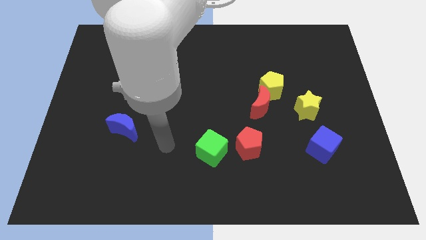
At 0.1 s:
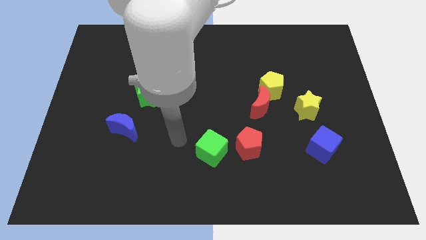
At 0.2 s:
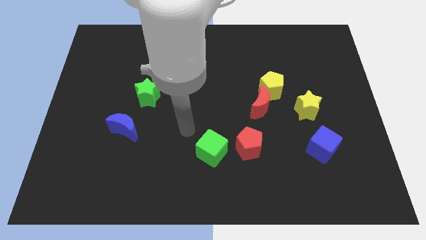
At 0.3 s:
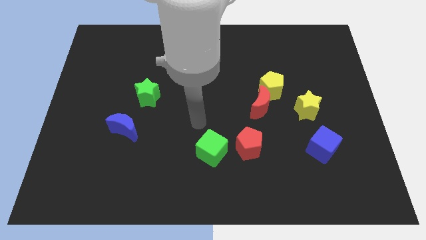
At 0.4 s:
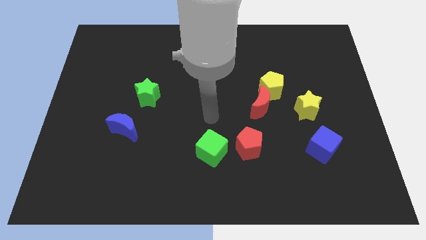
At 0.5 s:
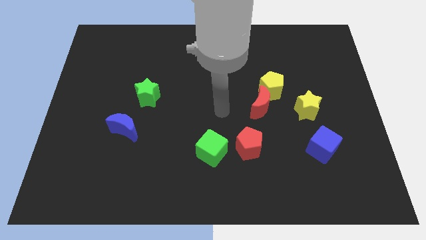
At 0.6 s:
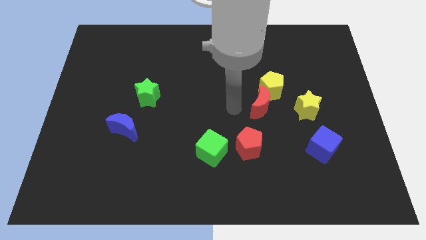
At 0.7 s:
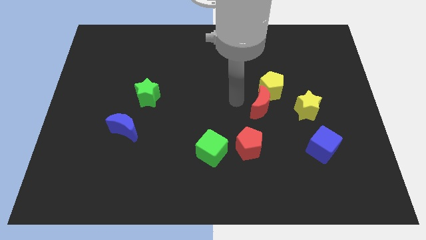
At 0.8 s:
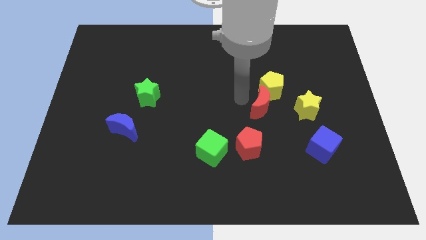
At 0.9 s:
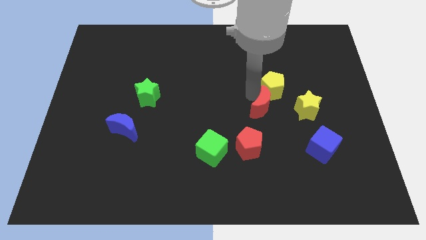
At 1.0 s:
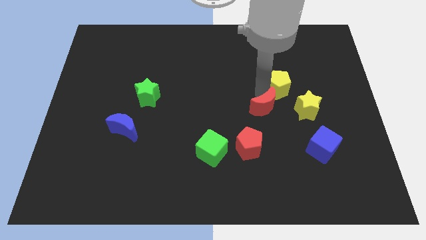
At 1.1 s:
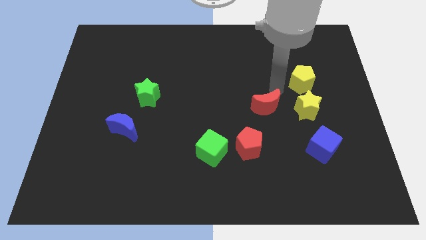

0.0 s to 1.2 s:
pull the red moon apart from the yellow pentagon

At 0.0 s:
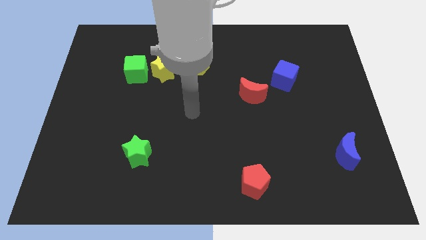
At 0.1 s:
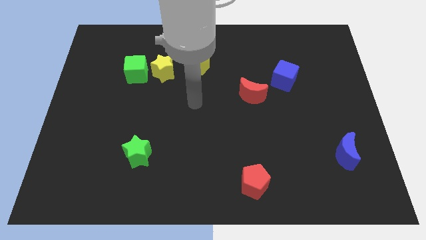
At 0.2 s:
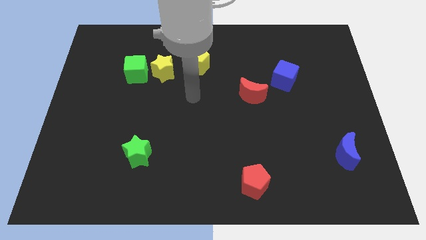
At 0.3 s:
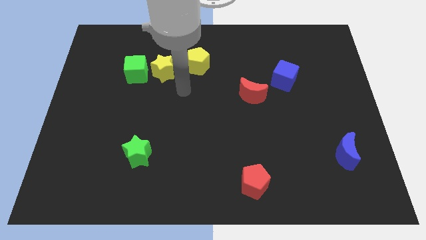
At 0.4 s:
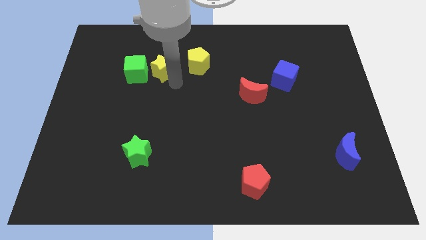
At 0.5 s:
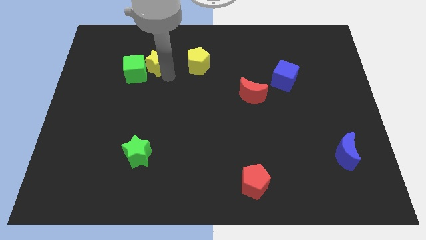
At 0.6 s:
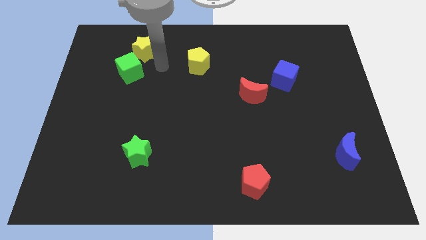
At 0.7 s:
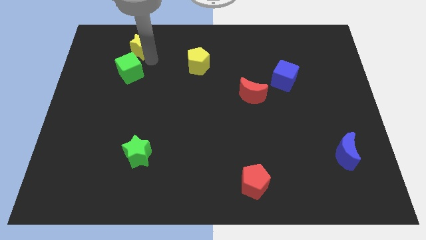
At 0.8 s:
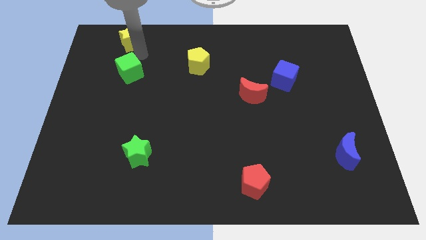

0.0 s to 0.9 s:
separate the green cube from the yellow star

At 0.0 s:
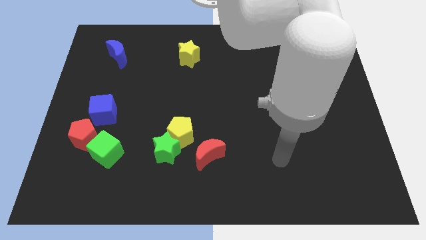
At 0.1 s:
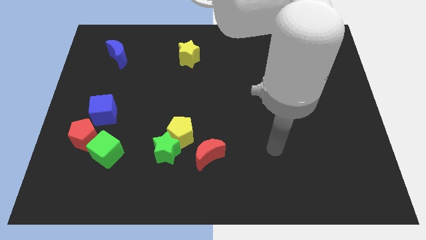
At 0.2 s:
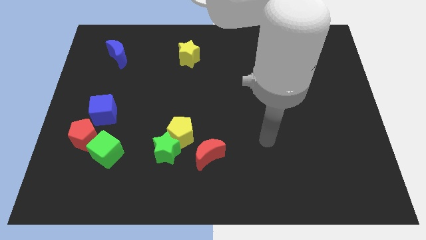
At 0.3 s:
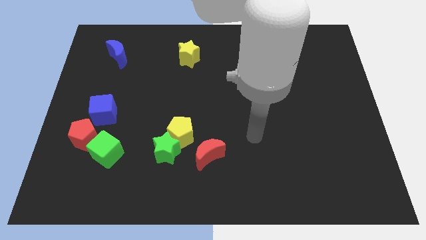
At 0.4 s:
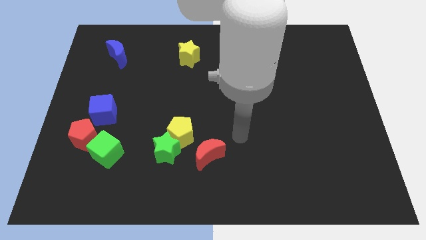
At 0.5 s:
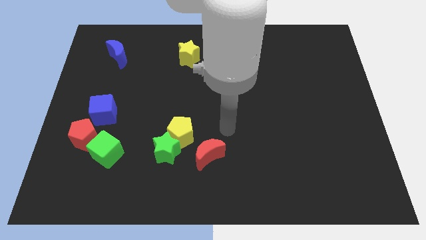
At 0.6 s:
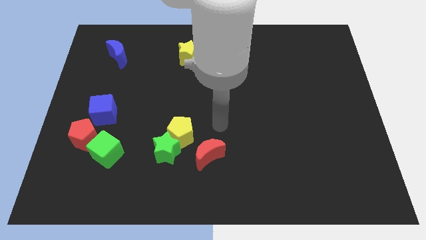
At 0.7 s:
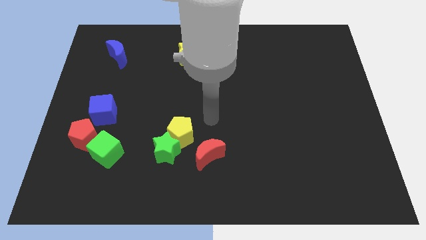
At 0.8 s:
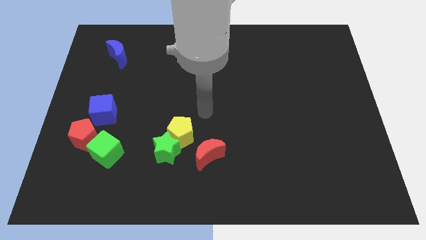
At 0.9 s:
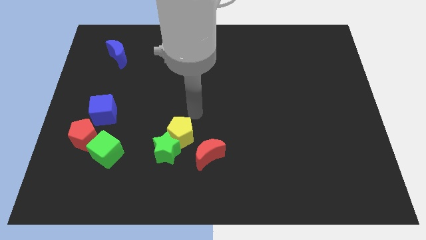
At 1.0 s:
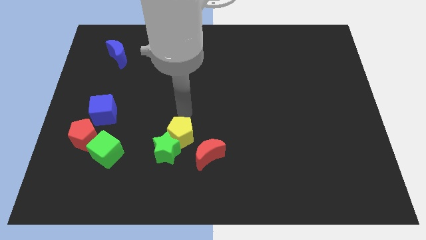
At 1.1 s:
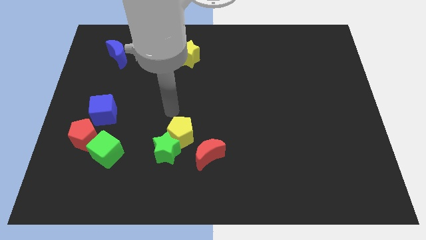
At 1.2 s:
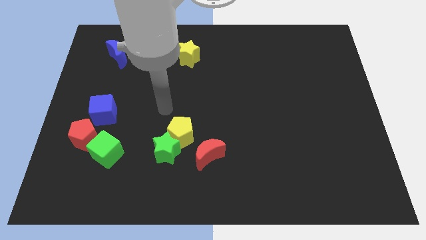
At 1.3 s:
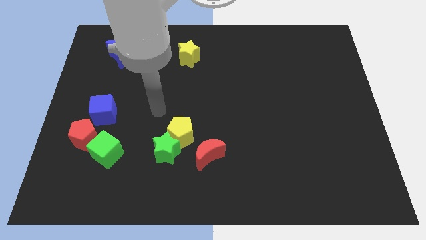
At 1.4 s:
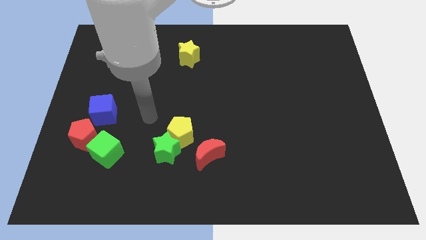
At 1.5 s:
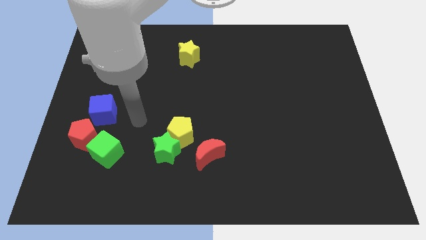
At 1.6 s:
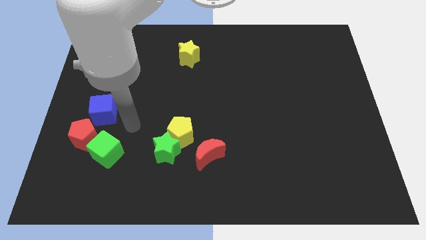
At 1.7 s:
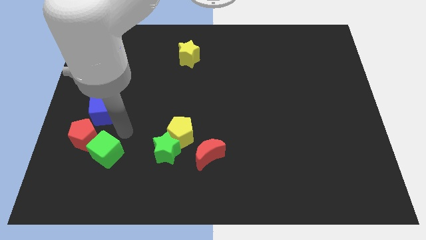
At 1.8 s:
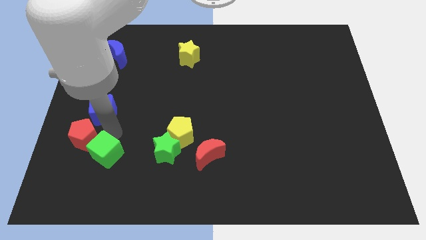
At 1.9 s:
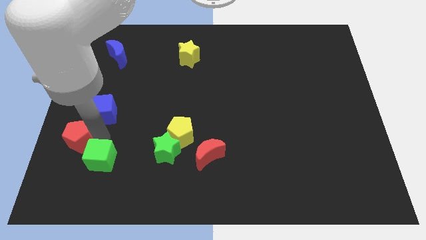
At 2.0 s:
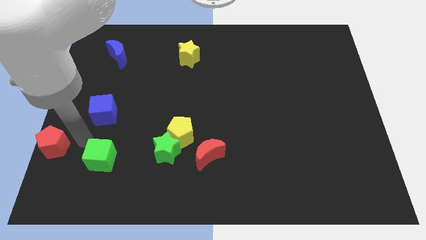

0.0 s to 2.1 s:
pull the green cube apart from the red pentagon

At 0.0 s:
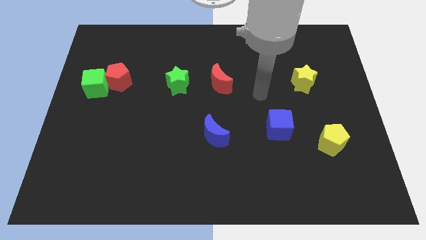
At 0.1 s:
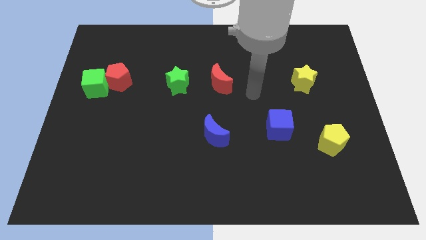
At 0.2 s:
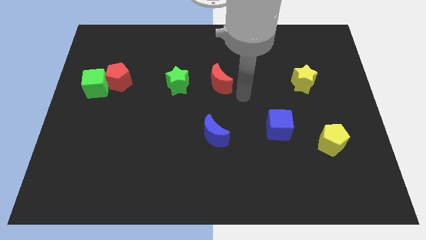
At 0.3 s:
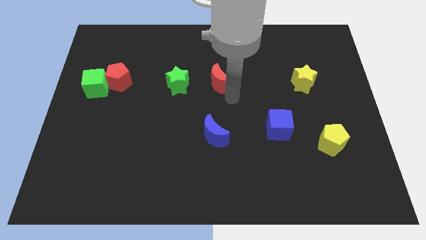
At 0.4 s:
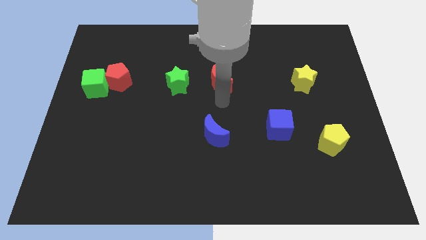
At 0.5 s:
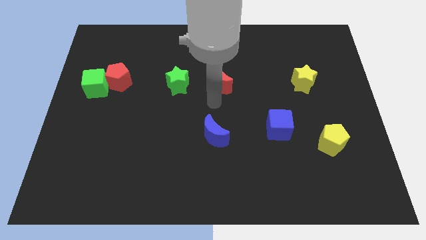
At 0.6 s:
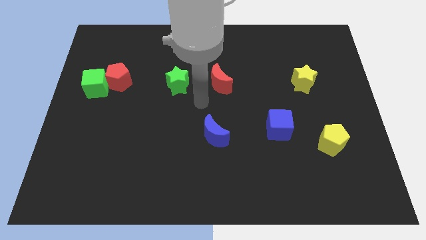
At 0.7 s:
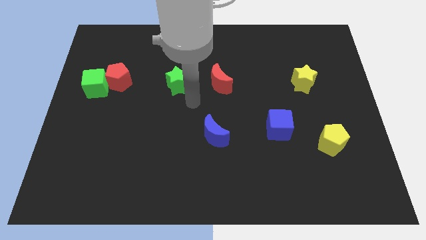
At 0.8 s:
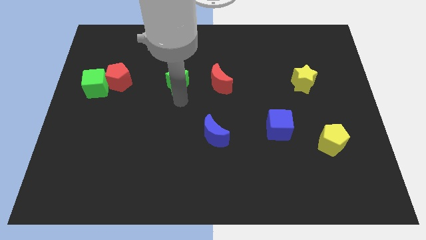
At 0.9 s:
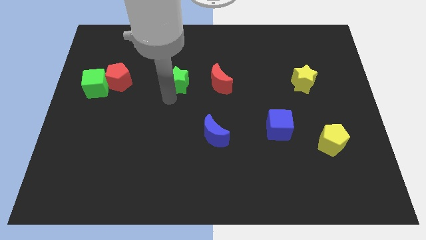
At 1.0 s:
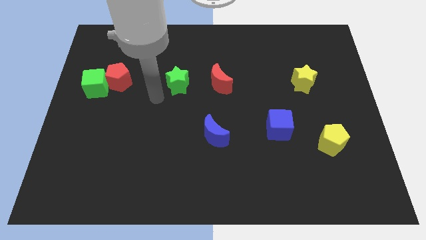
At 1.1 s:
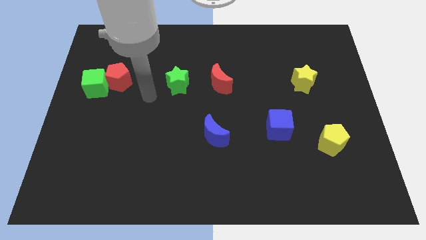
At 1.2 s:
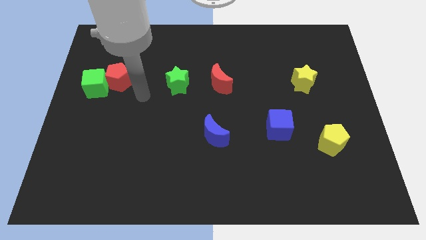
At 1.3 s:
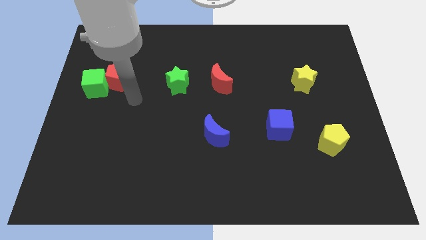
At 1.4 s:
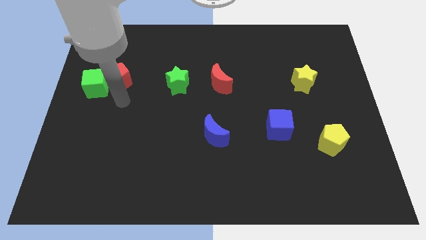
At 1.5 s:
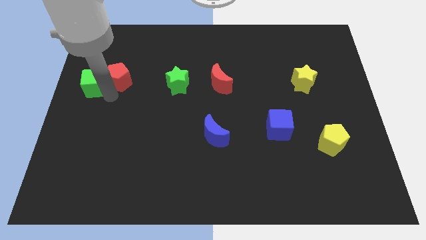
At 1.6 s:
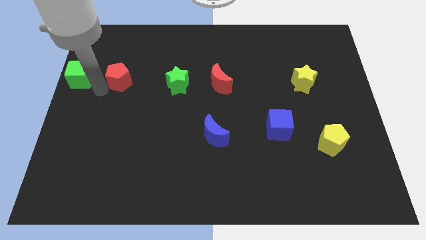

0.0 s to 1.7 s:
move the red pentagon away from the green cube

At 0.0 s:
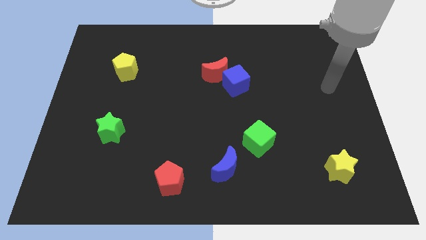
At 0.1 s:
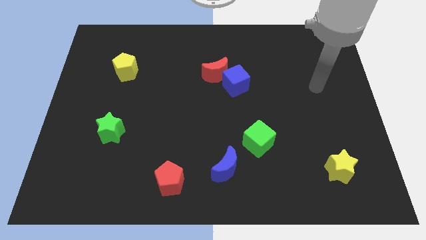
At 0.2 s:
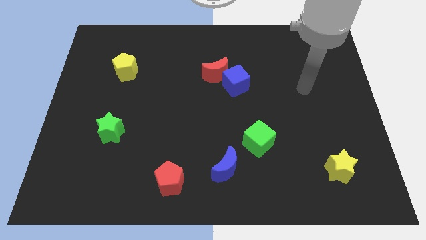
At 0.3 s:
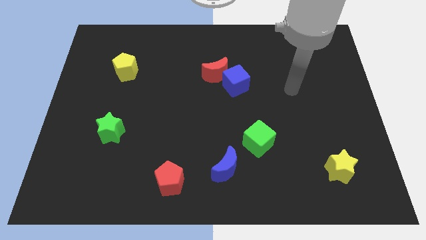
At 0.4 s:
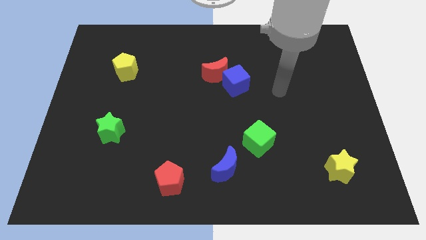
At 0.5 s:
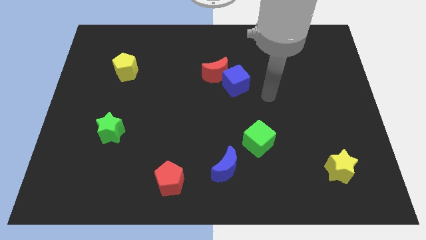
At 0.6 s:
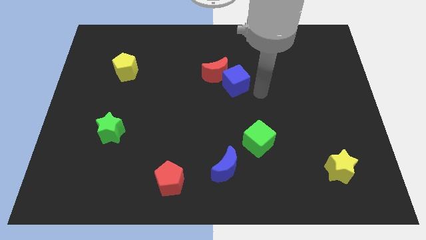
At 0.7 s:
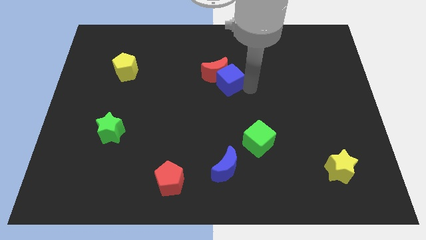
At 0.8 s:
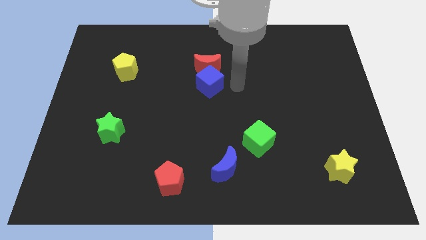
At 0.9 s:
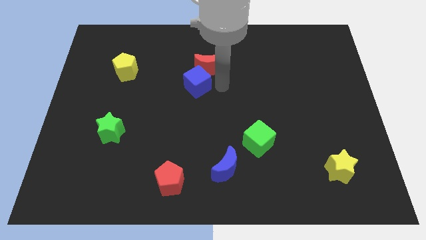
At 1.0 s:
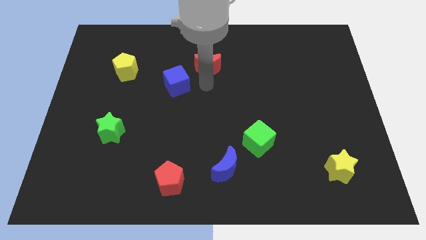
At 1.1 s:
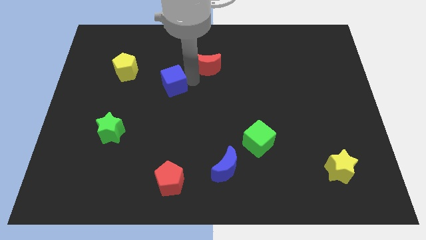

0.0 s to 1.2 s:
pull the red moon apart from the blue cube

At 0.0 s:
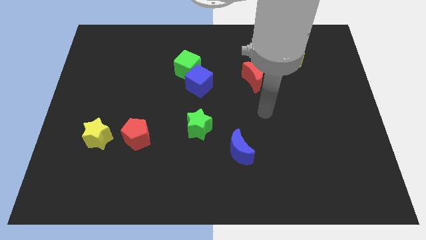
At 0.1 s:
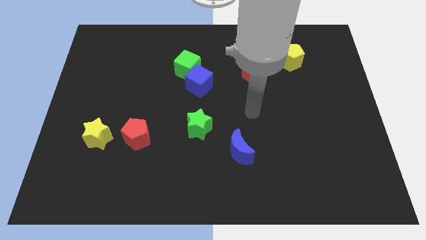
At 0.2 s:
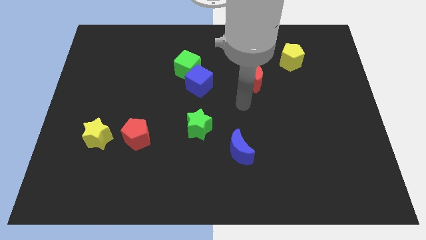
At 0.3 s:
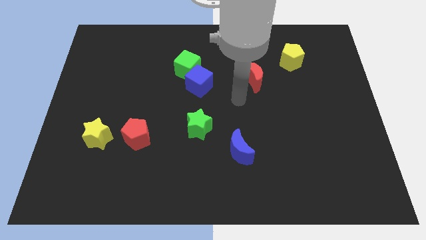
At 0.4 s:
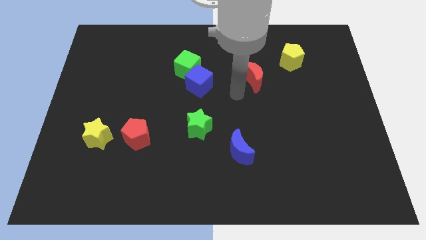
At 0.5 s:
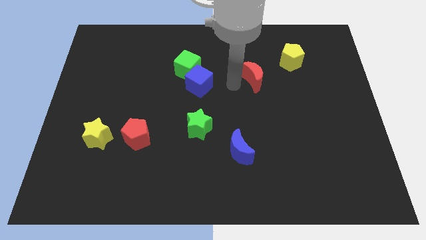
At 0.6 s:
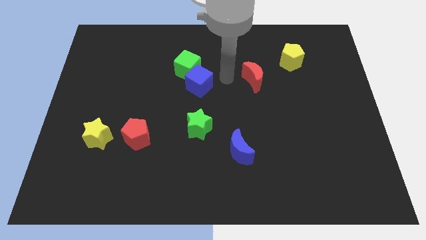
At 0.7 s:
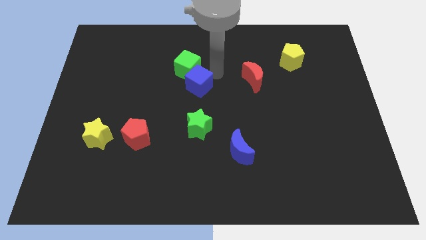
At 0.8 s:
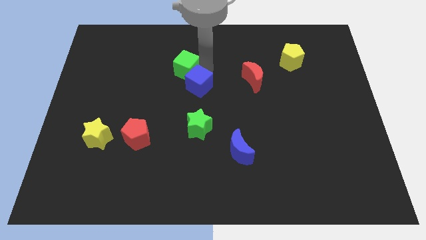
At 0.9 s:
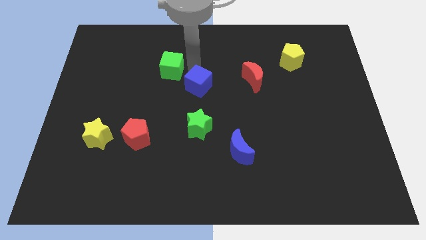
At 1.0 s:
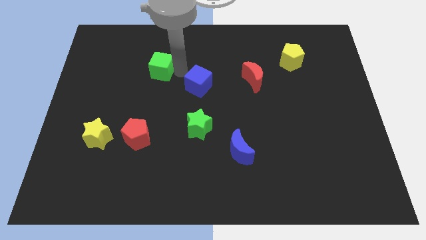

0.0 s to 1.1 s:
separate the blue cube from the green cube

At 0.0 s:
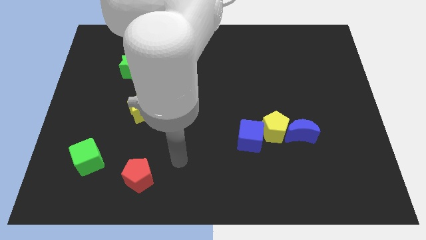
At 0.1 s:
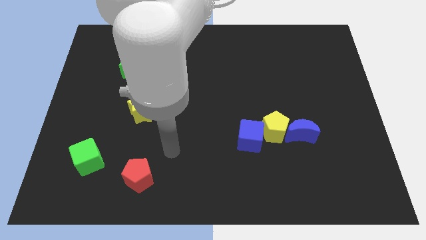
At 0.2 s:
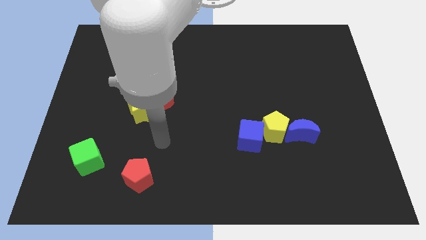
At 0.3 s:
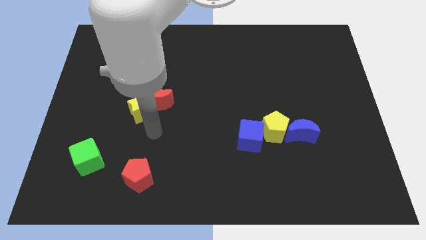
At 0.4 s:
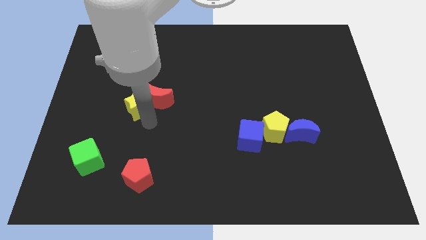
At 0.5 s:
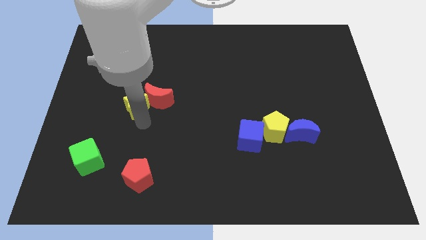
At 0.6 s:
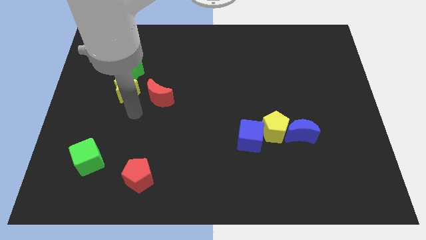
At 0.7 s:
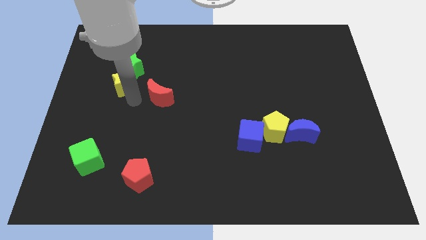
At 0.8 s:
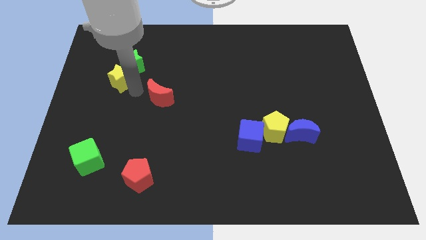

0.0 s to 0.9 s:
separate the red moon from the yellow star
